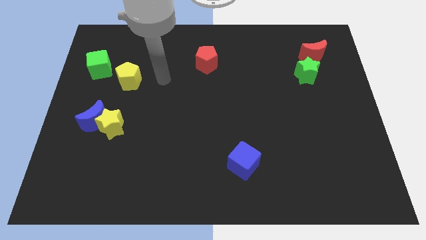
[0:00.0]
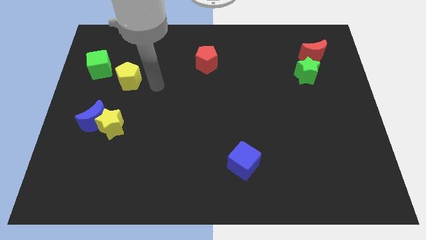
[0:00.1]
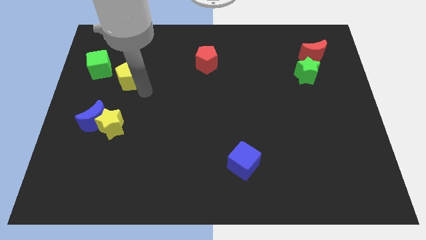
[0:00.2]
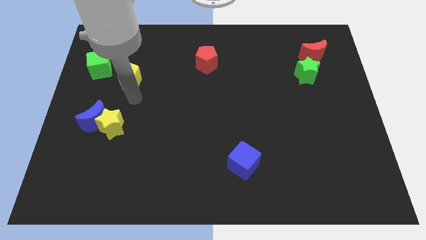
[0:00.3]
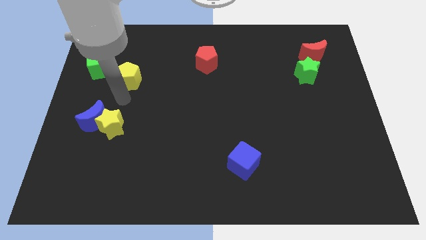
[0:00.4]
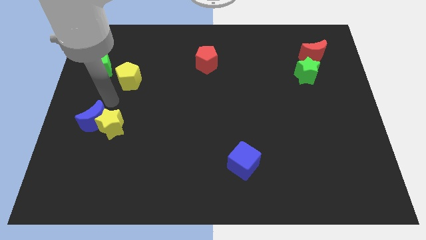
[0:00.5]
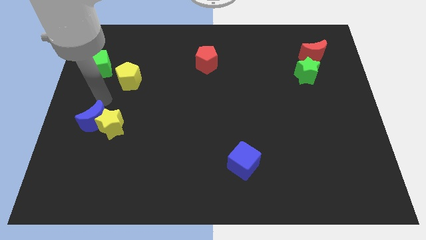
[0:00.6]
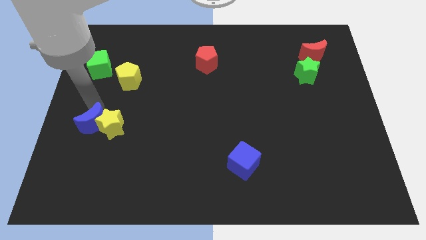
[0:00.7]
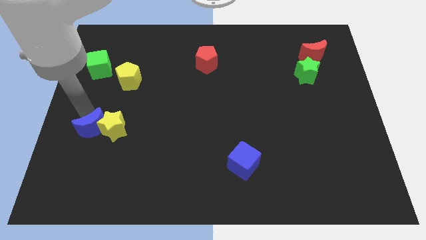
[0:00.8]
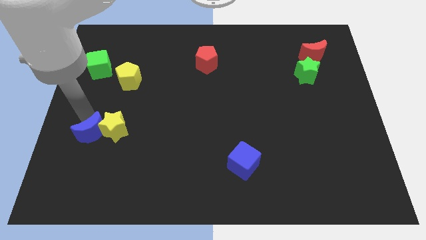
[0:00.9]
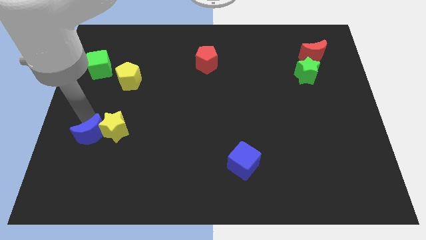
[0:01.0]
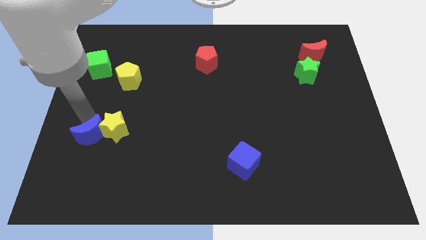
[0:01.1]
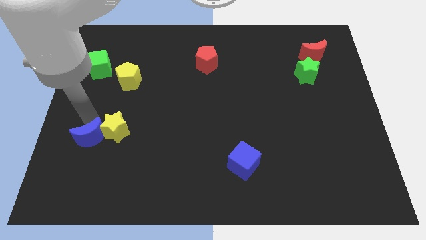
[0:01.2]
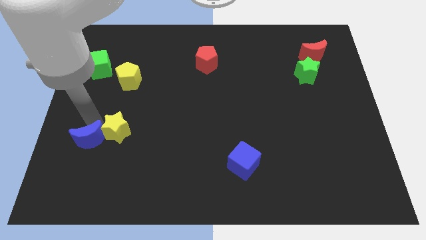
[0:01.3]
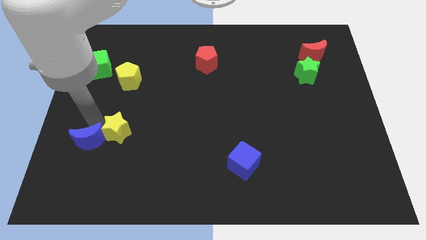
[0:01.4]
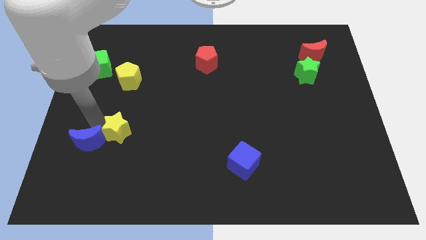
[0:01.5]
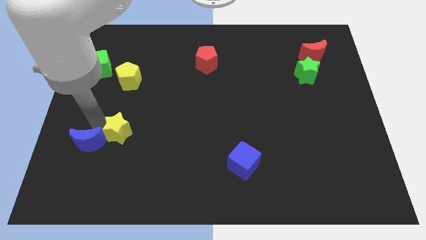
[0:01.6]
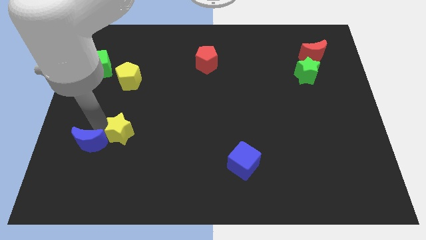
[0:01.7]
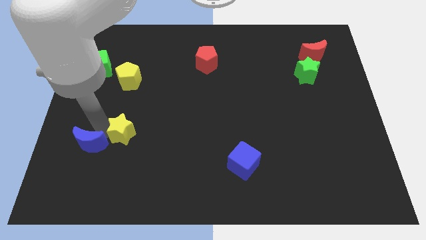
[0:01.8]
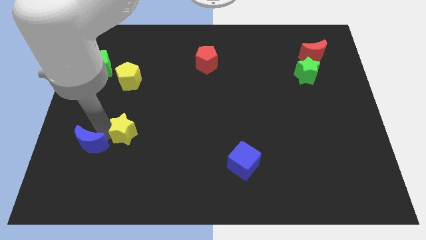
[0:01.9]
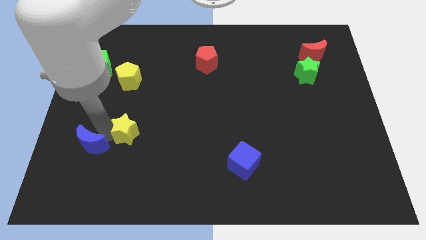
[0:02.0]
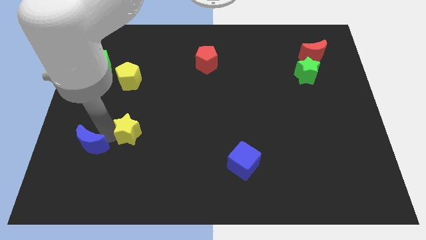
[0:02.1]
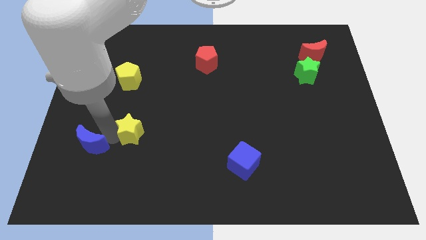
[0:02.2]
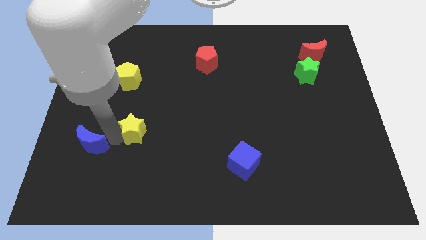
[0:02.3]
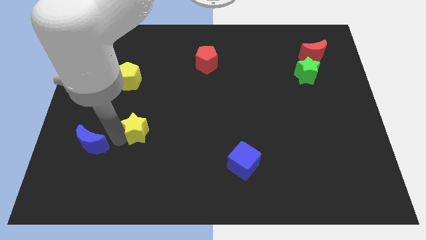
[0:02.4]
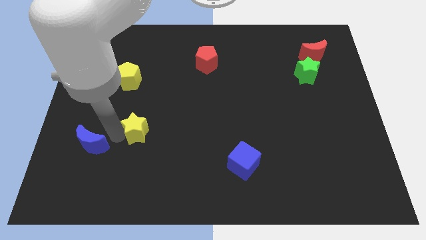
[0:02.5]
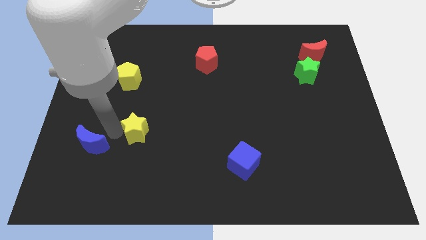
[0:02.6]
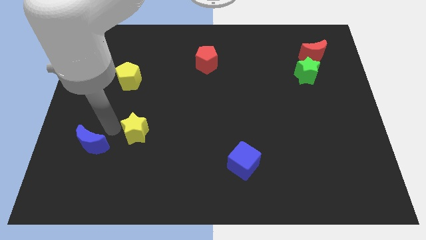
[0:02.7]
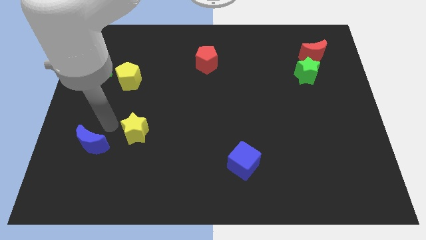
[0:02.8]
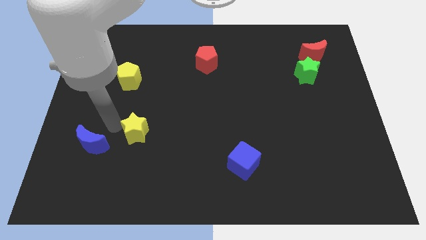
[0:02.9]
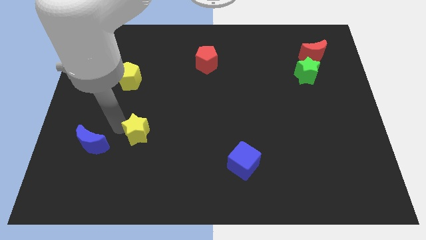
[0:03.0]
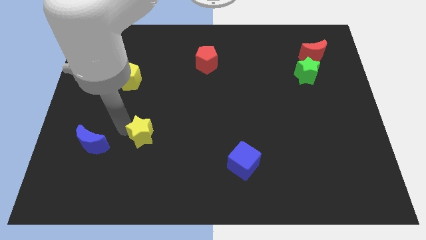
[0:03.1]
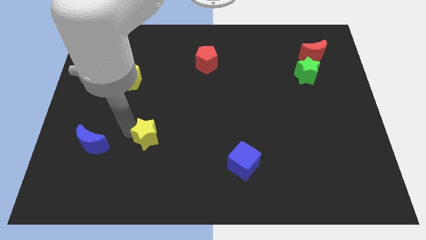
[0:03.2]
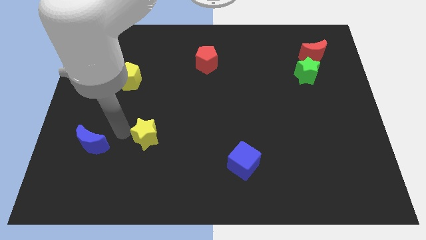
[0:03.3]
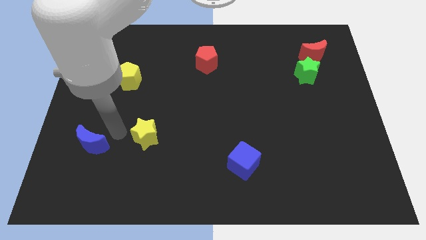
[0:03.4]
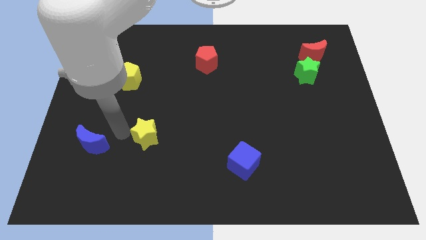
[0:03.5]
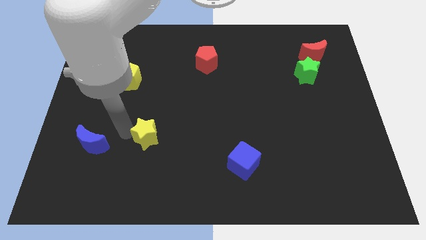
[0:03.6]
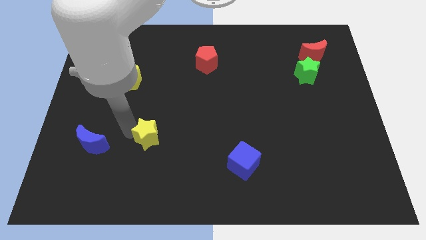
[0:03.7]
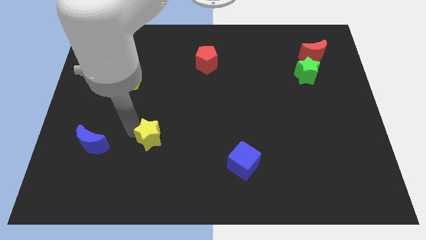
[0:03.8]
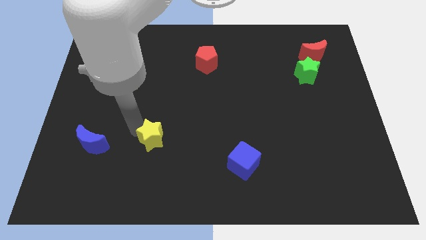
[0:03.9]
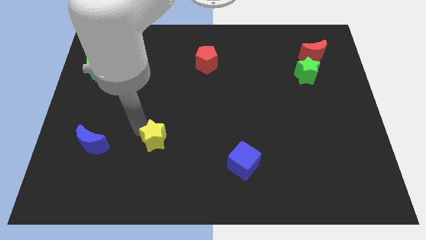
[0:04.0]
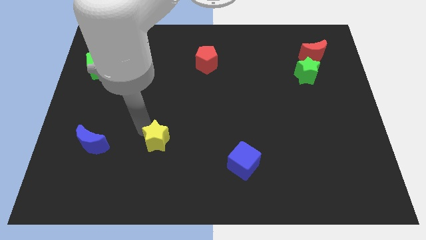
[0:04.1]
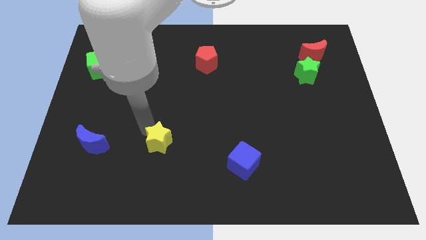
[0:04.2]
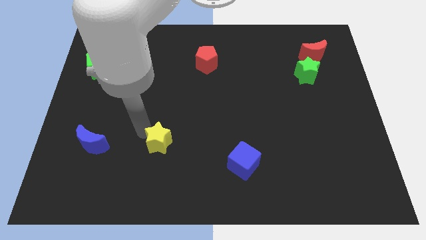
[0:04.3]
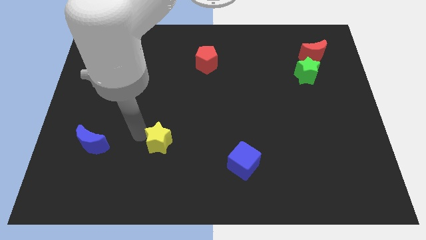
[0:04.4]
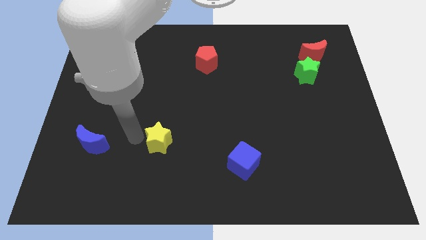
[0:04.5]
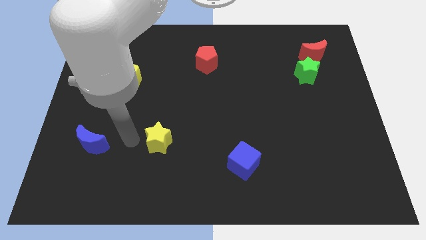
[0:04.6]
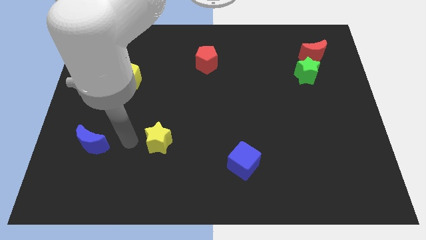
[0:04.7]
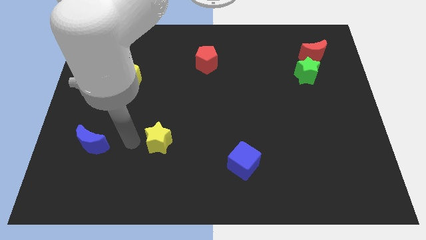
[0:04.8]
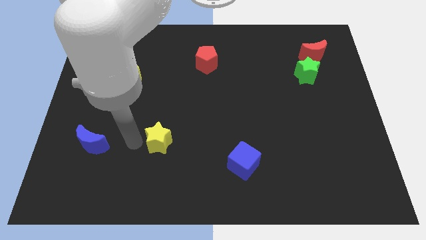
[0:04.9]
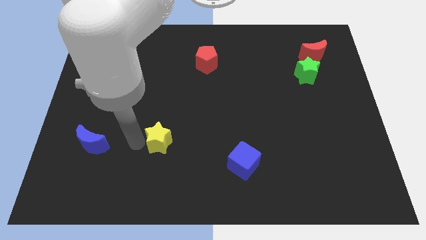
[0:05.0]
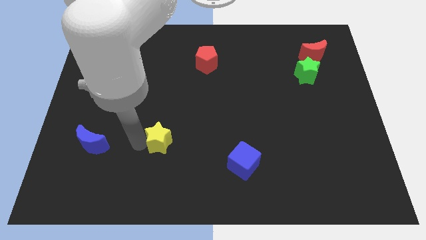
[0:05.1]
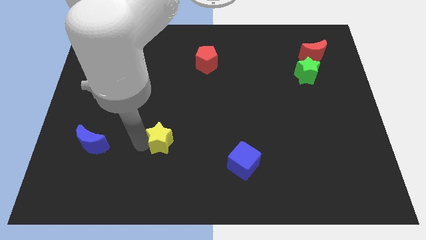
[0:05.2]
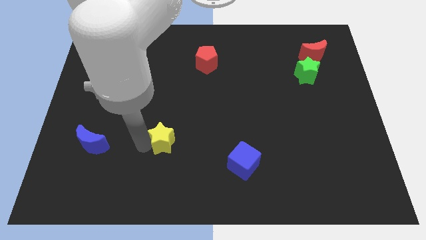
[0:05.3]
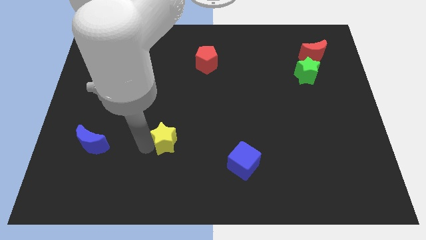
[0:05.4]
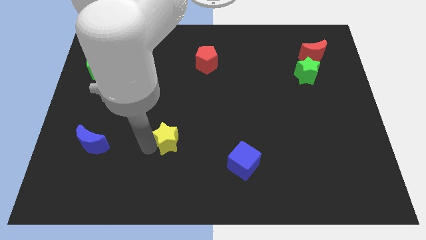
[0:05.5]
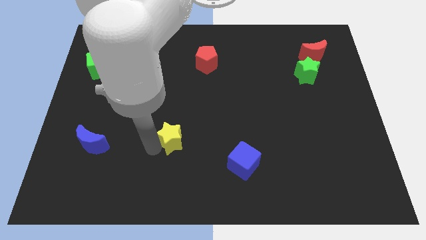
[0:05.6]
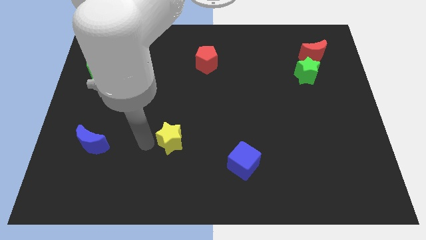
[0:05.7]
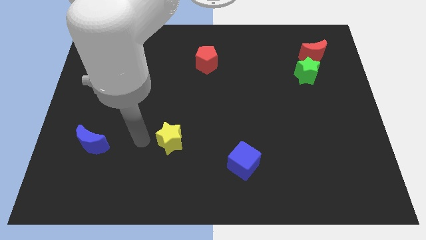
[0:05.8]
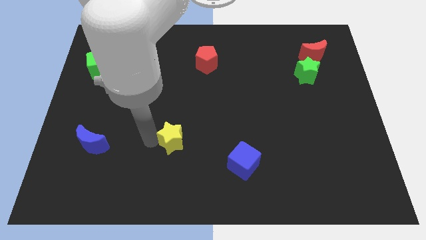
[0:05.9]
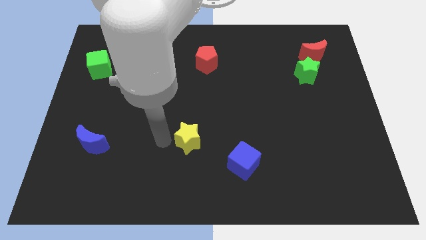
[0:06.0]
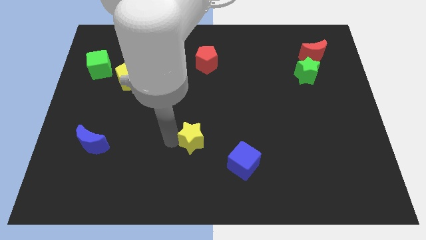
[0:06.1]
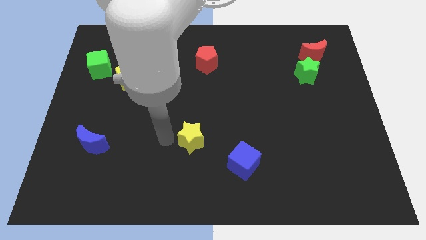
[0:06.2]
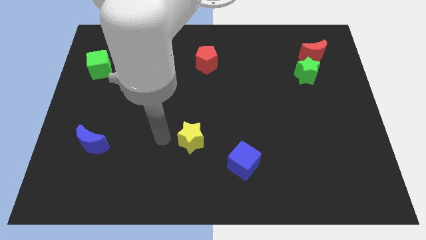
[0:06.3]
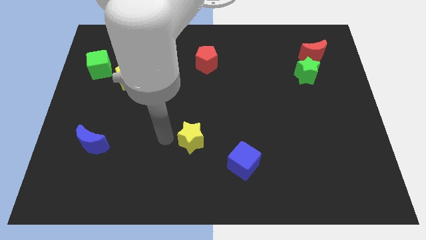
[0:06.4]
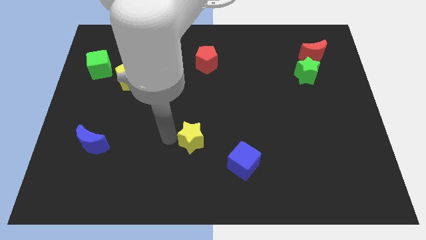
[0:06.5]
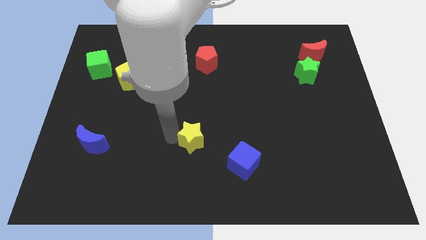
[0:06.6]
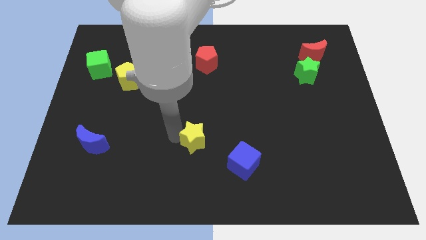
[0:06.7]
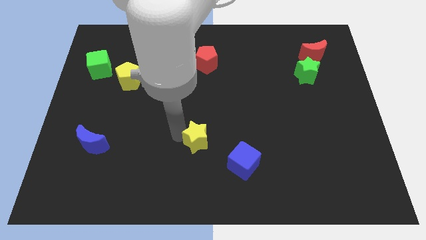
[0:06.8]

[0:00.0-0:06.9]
move the yellow star to the top left side of the blue cube

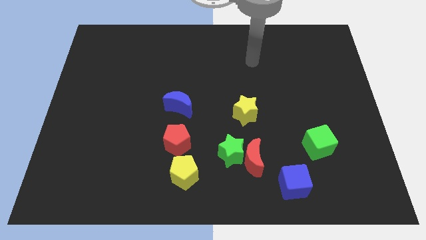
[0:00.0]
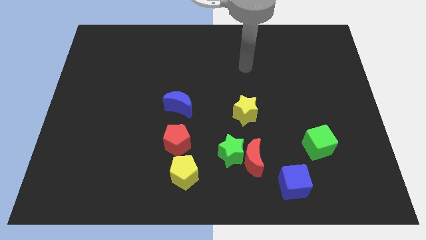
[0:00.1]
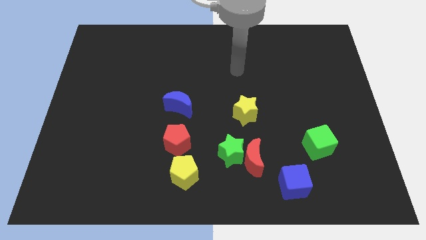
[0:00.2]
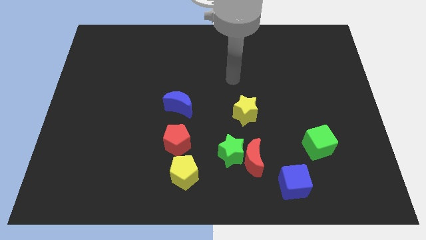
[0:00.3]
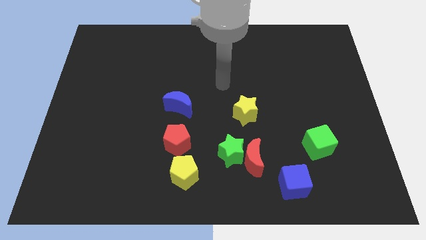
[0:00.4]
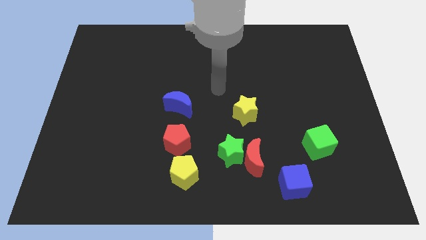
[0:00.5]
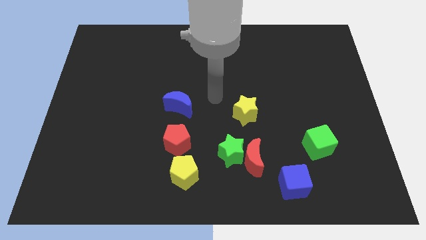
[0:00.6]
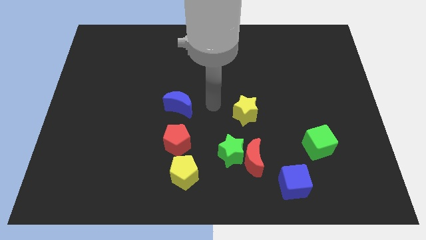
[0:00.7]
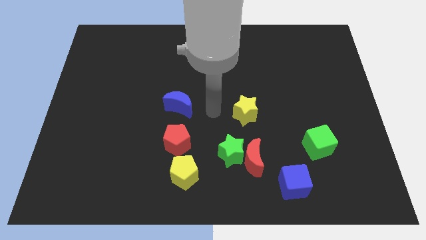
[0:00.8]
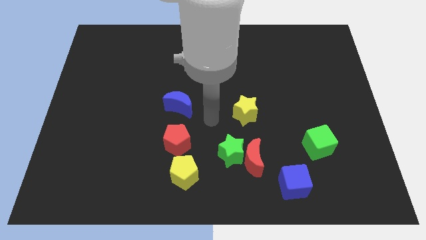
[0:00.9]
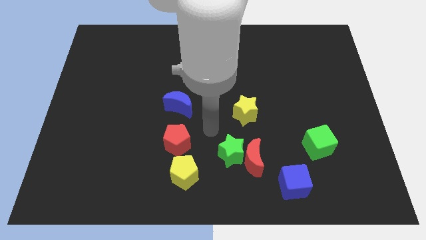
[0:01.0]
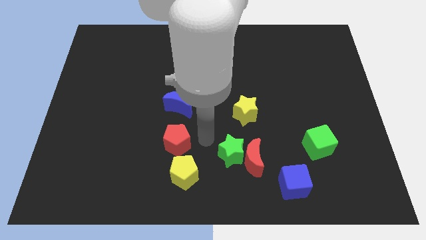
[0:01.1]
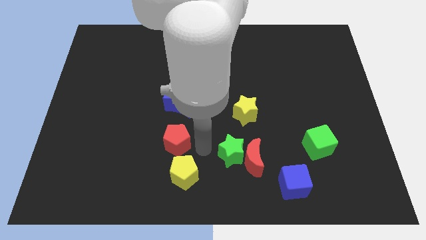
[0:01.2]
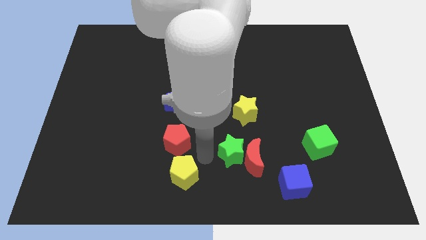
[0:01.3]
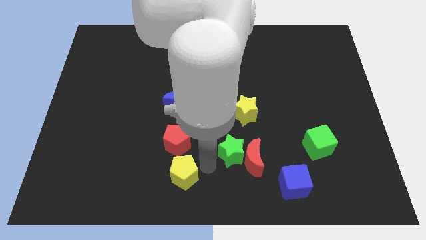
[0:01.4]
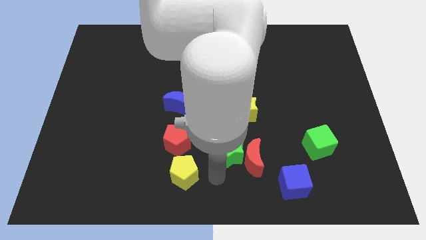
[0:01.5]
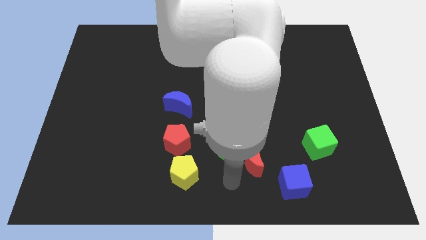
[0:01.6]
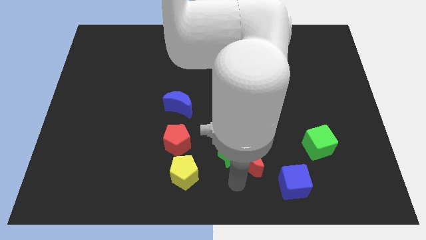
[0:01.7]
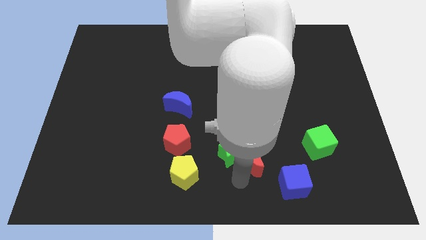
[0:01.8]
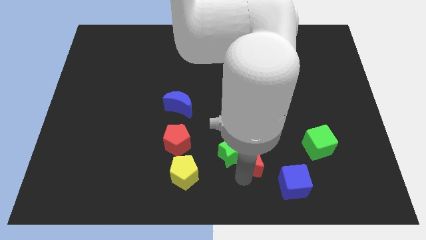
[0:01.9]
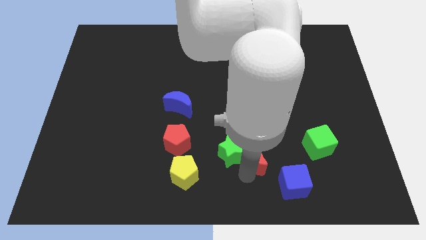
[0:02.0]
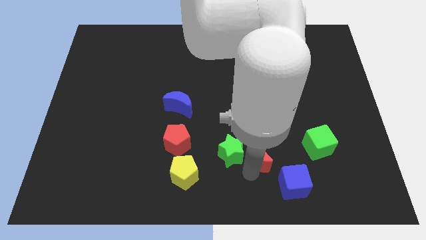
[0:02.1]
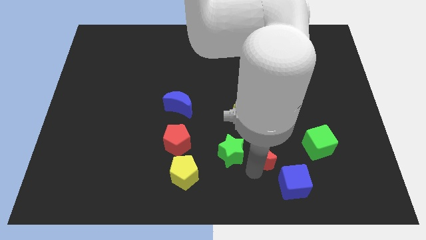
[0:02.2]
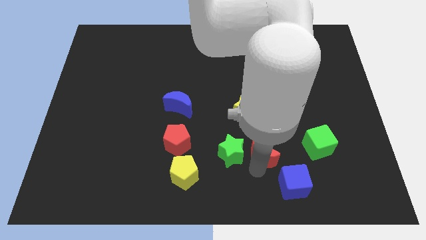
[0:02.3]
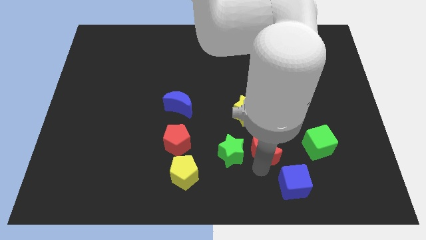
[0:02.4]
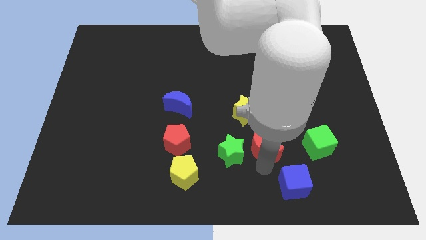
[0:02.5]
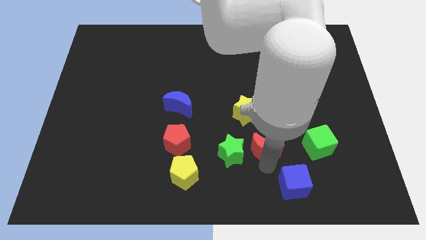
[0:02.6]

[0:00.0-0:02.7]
slide the red moon to the bottom right side of the yellow star
